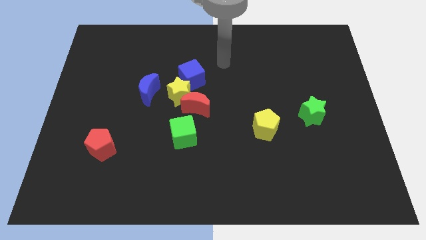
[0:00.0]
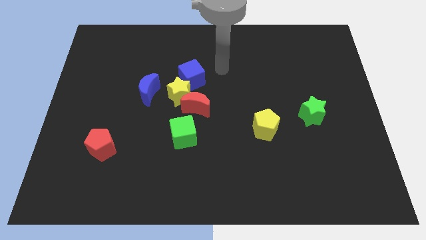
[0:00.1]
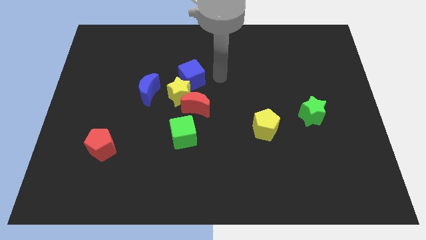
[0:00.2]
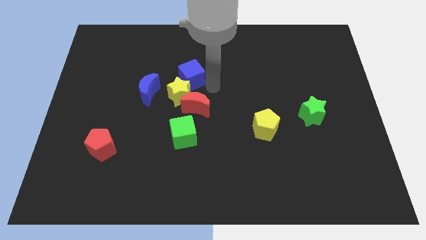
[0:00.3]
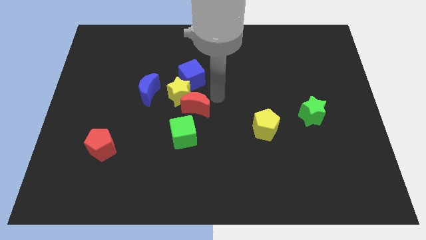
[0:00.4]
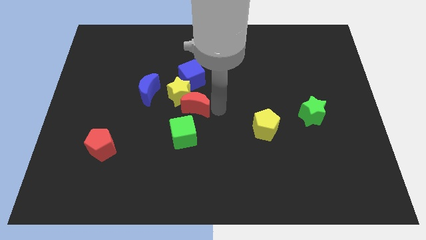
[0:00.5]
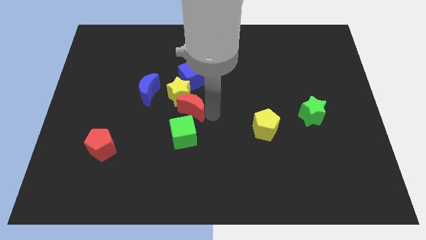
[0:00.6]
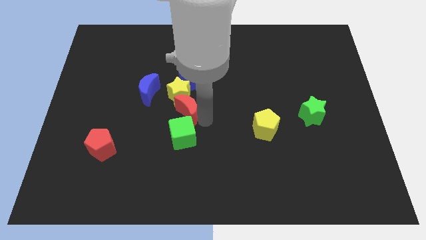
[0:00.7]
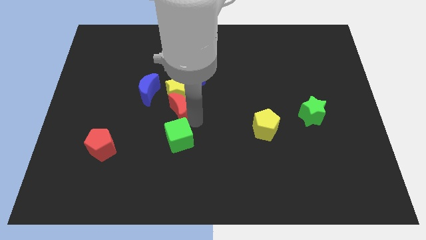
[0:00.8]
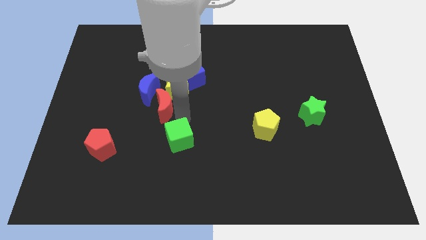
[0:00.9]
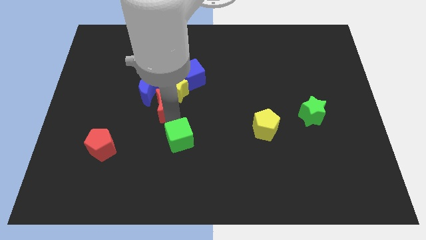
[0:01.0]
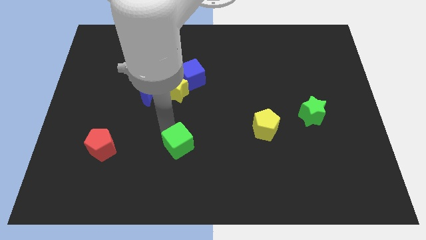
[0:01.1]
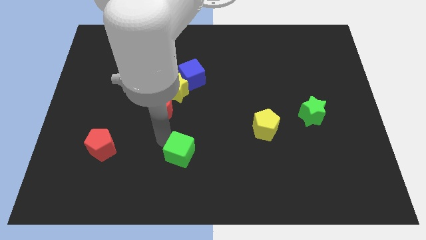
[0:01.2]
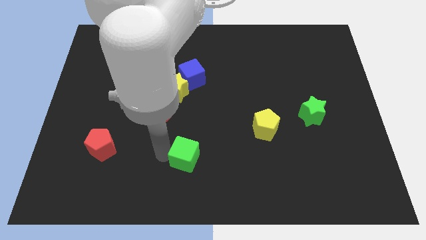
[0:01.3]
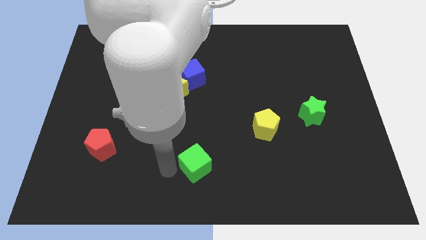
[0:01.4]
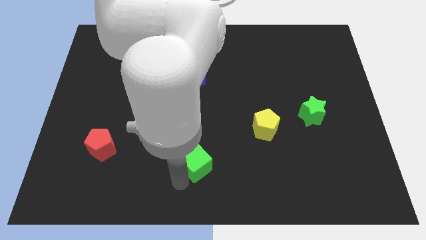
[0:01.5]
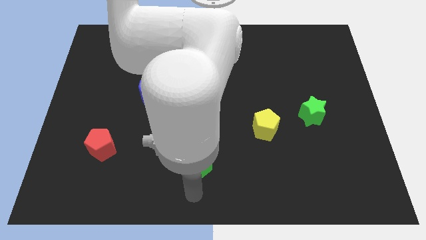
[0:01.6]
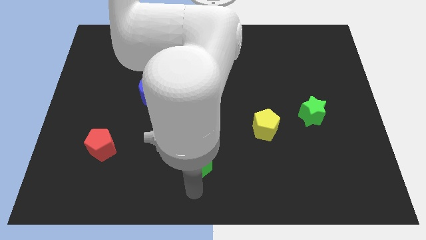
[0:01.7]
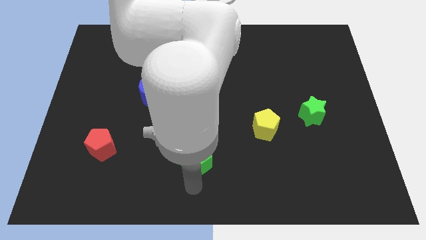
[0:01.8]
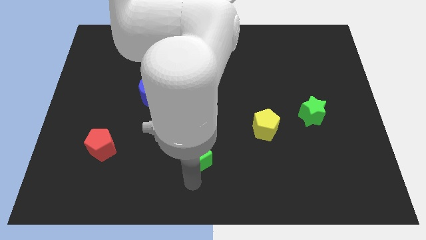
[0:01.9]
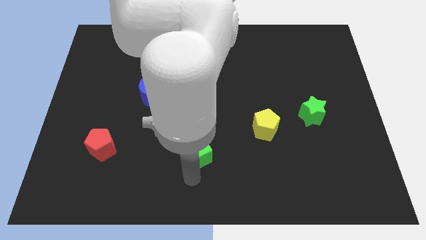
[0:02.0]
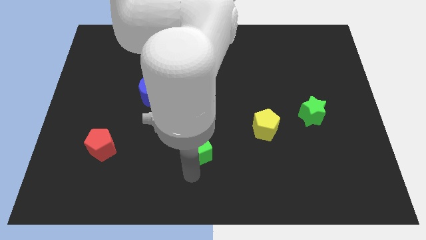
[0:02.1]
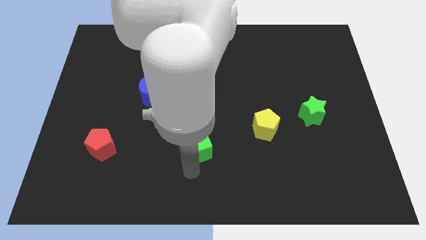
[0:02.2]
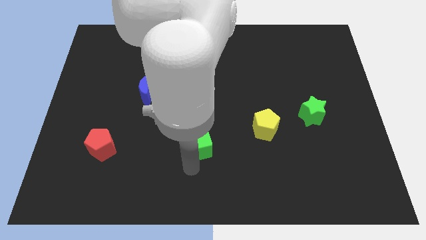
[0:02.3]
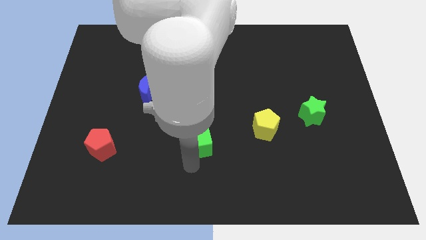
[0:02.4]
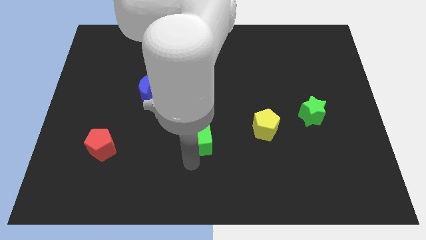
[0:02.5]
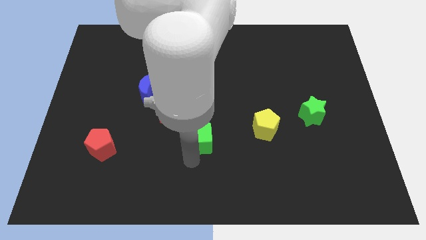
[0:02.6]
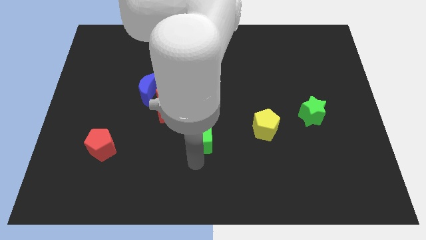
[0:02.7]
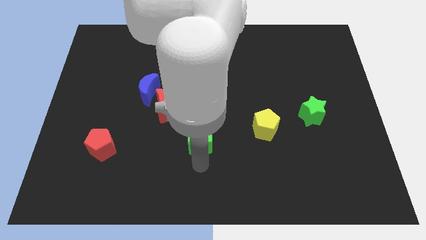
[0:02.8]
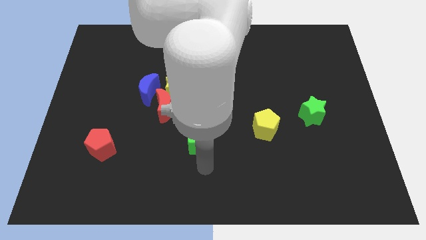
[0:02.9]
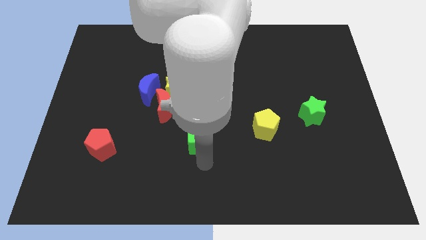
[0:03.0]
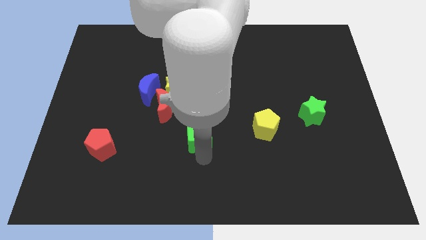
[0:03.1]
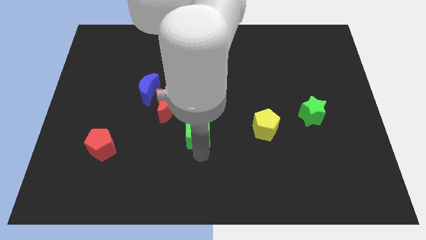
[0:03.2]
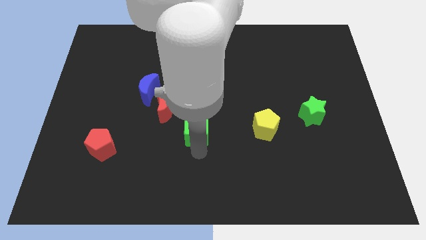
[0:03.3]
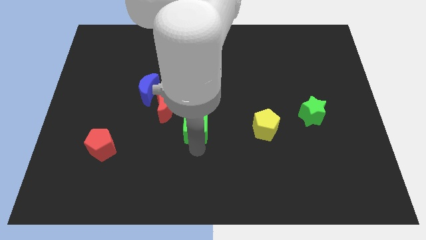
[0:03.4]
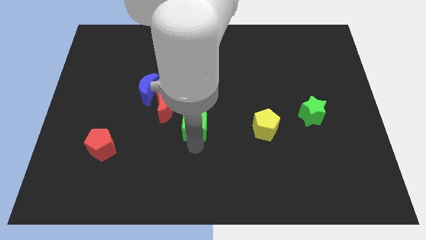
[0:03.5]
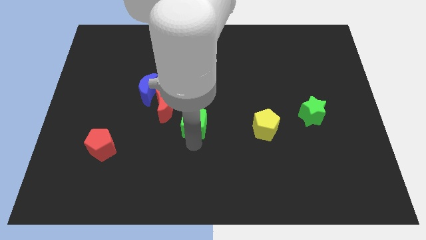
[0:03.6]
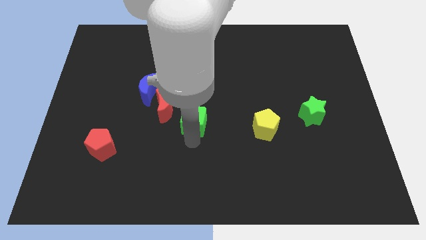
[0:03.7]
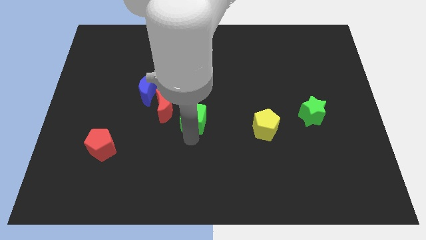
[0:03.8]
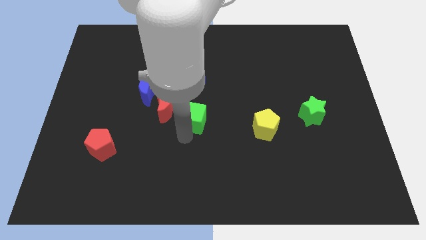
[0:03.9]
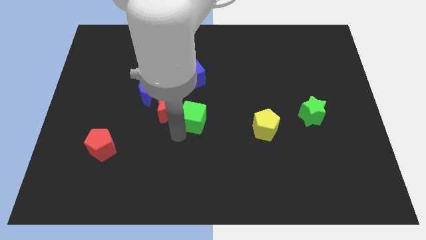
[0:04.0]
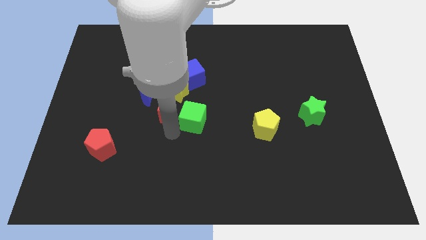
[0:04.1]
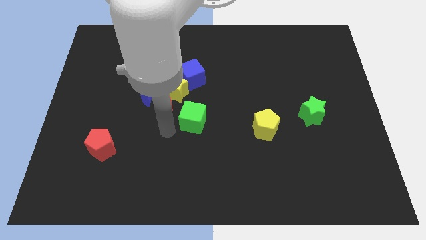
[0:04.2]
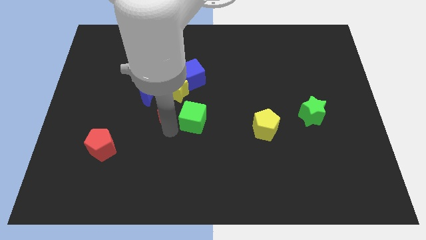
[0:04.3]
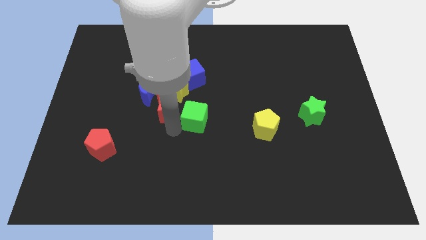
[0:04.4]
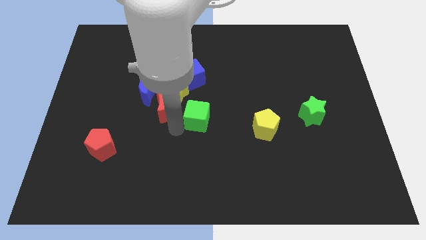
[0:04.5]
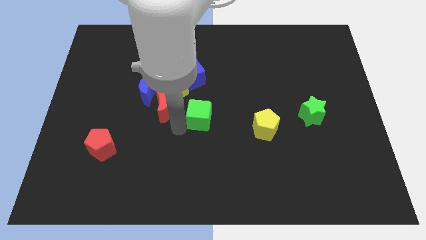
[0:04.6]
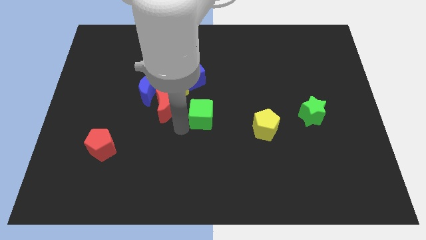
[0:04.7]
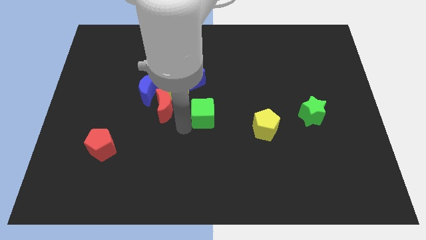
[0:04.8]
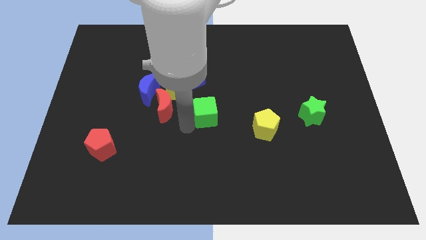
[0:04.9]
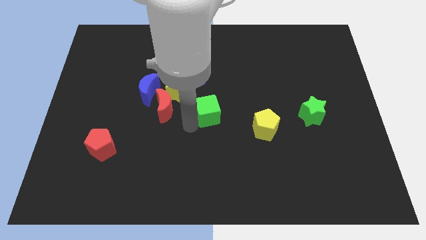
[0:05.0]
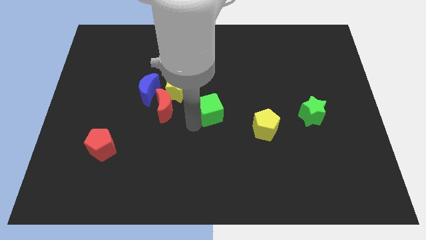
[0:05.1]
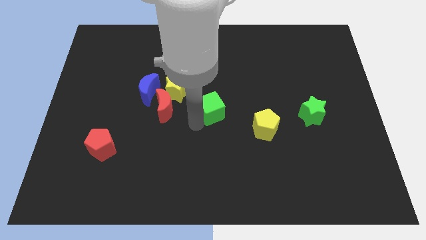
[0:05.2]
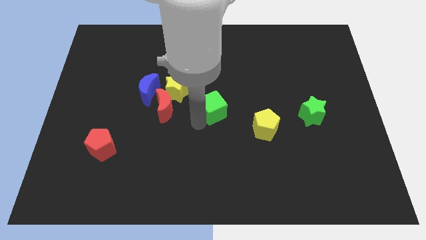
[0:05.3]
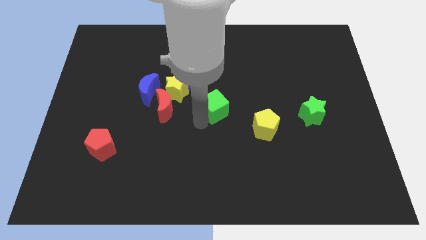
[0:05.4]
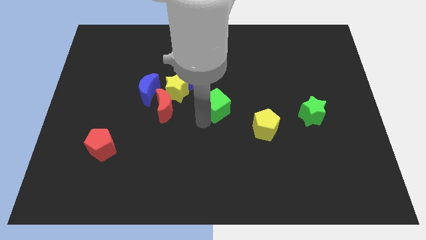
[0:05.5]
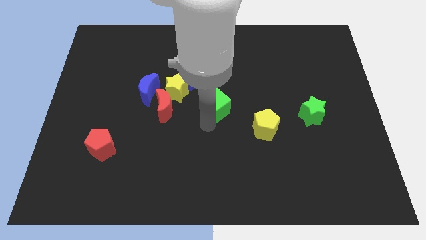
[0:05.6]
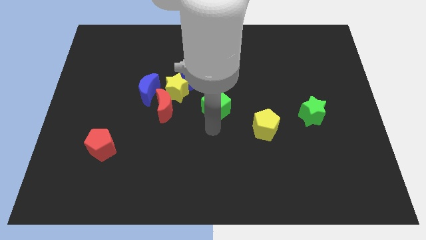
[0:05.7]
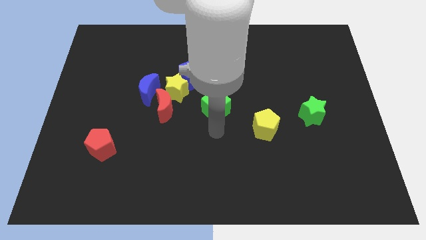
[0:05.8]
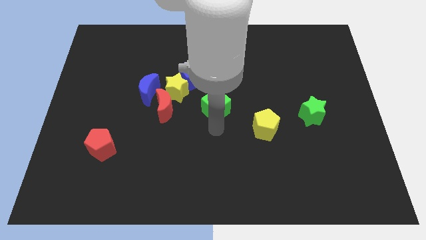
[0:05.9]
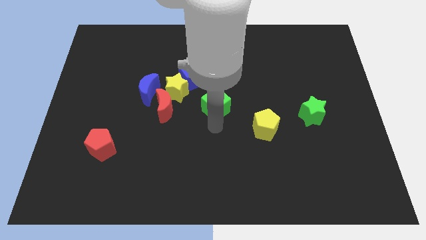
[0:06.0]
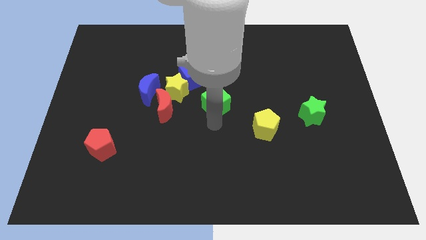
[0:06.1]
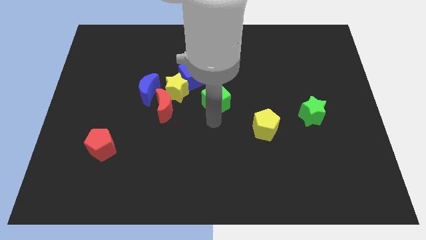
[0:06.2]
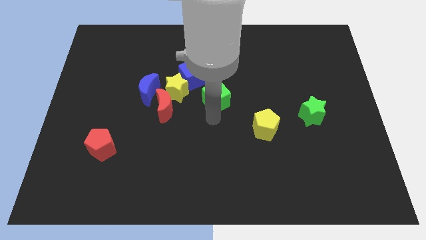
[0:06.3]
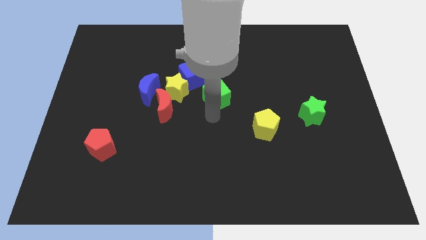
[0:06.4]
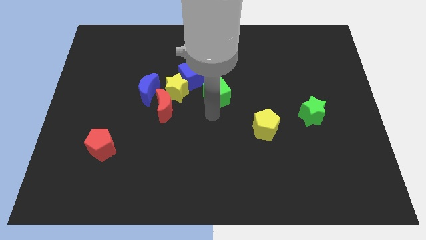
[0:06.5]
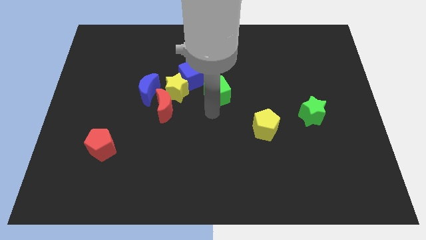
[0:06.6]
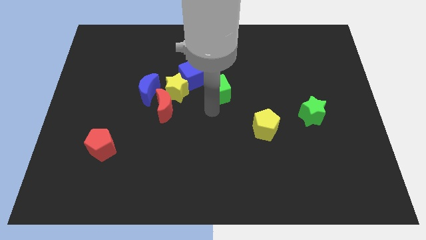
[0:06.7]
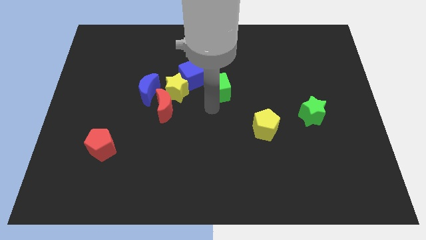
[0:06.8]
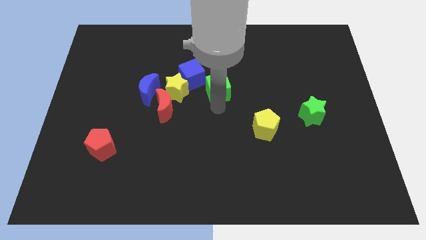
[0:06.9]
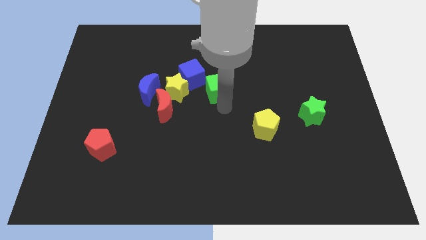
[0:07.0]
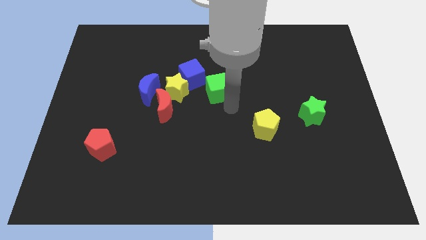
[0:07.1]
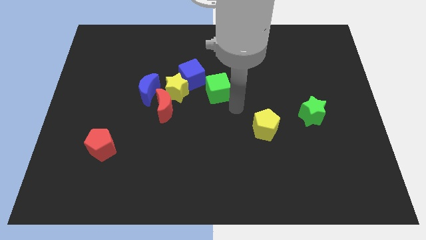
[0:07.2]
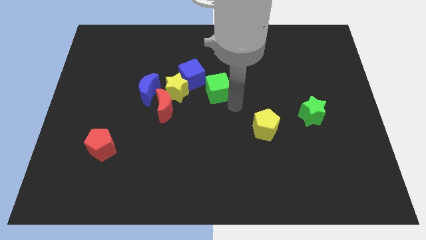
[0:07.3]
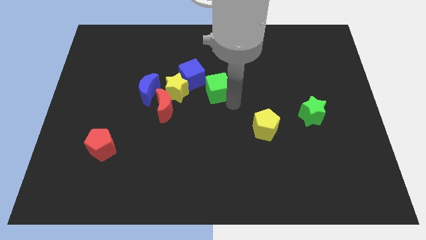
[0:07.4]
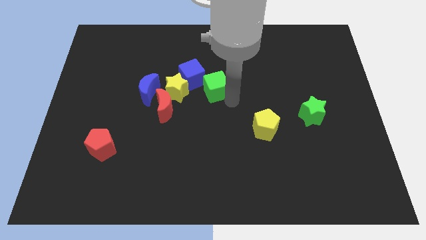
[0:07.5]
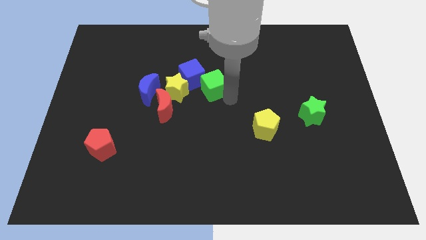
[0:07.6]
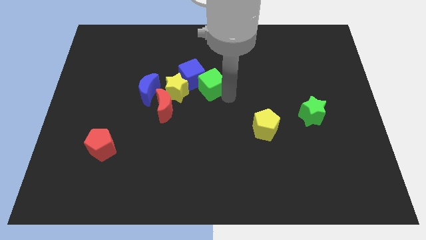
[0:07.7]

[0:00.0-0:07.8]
slide the green cube diagonally up and to the right of the yellow star
